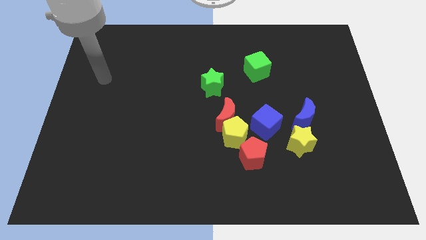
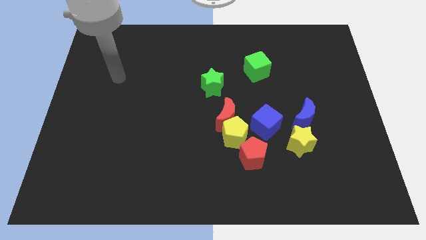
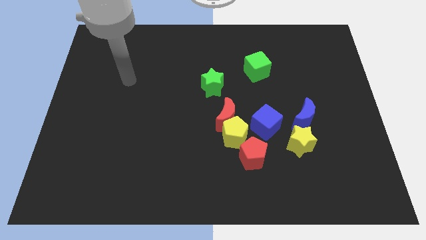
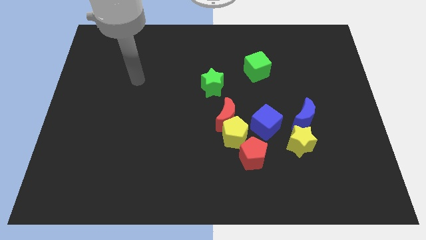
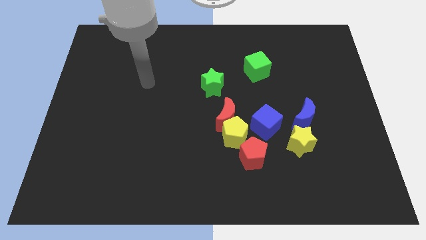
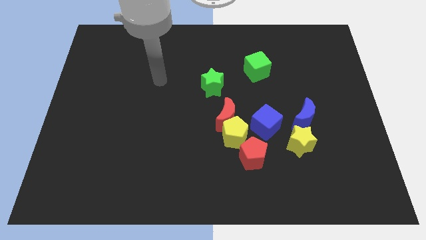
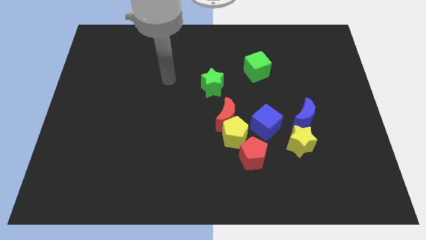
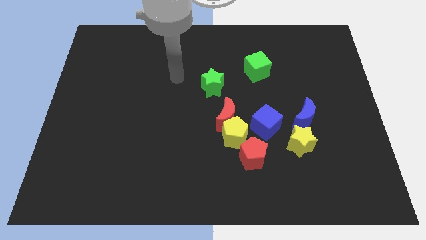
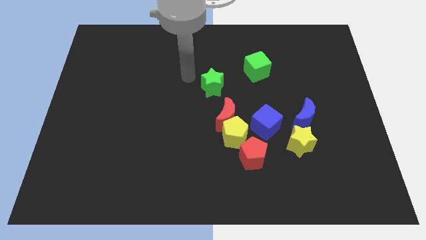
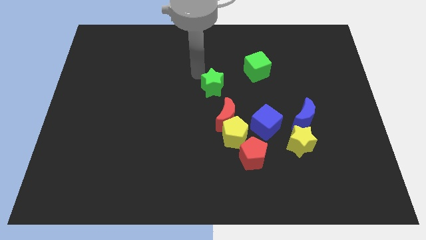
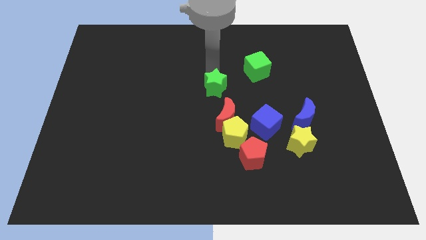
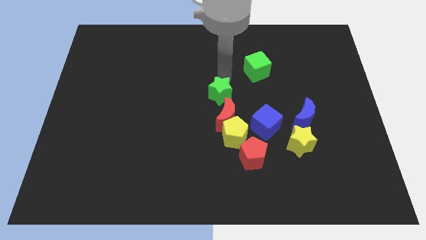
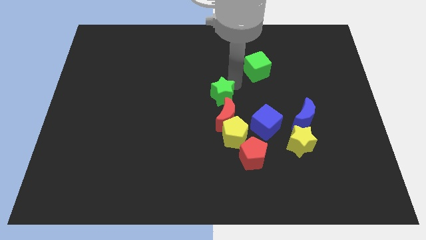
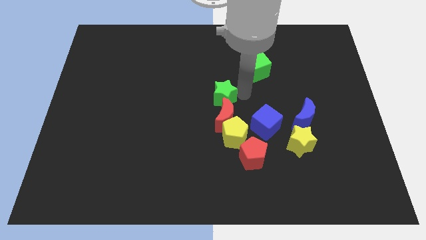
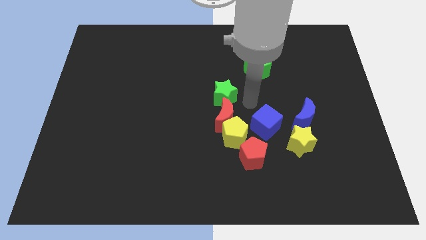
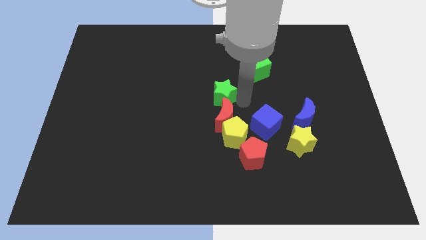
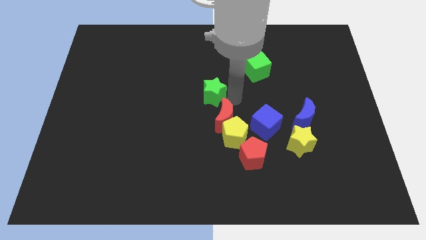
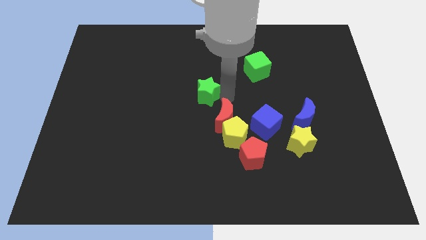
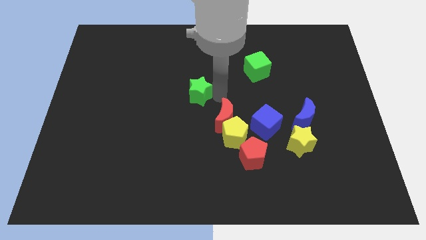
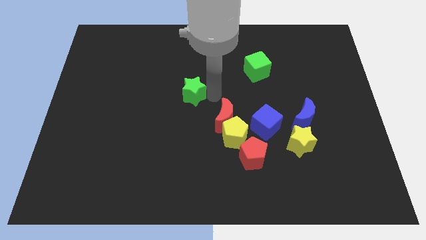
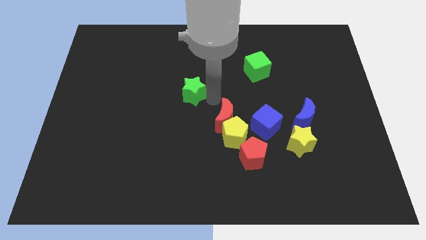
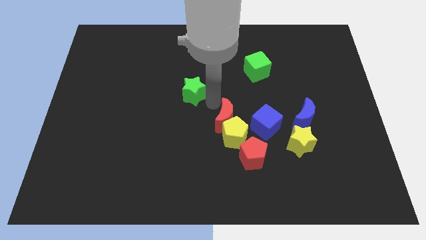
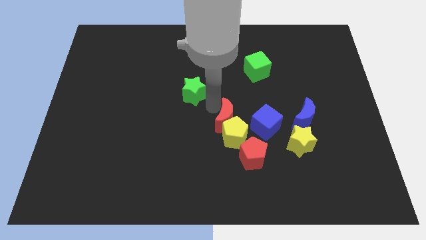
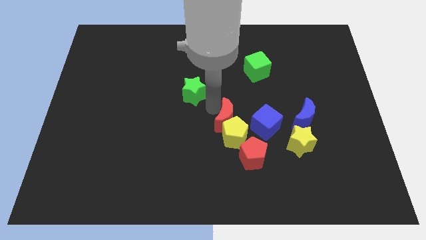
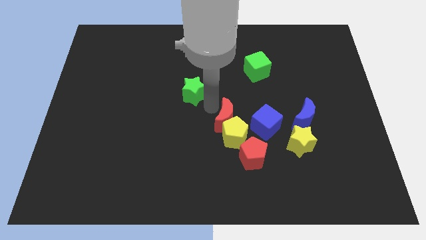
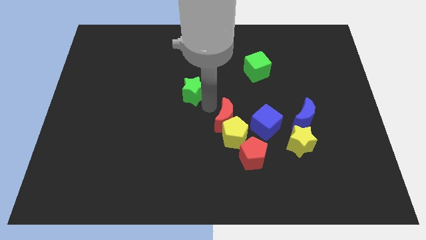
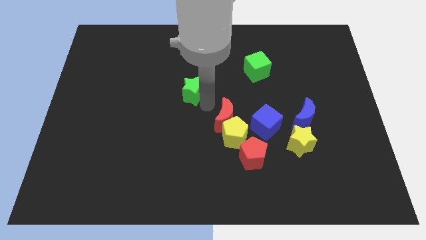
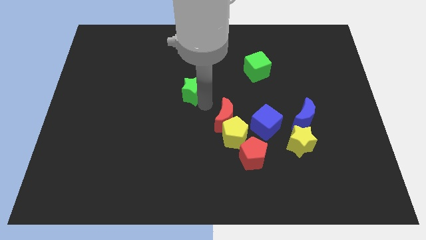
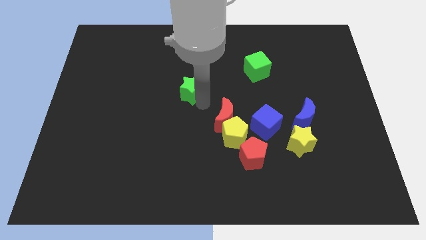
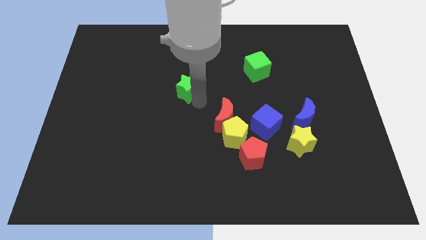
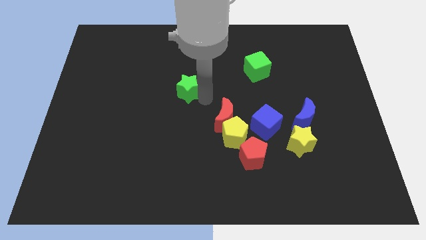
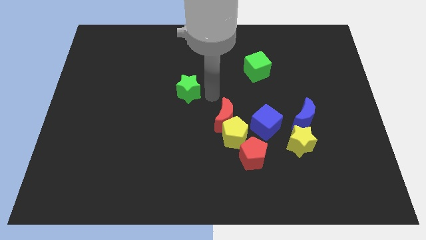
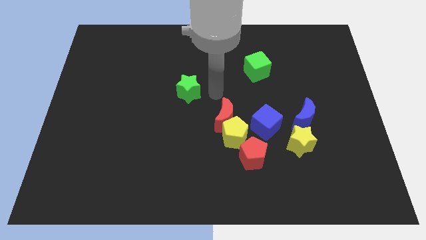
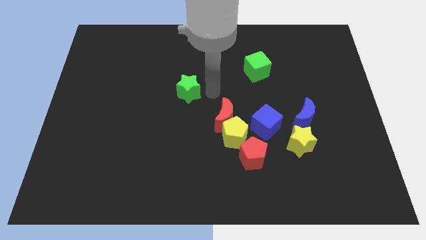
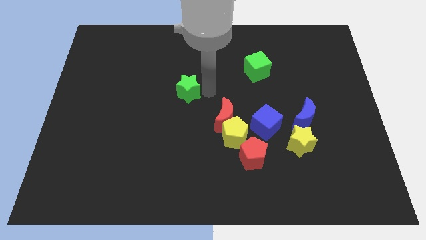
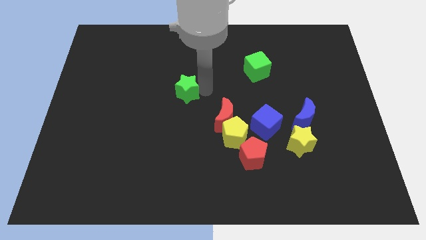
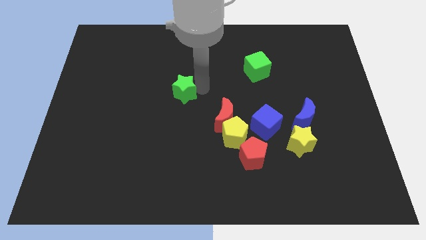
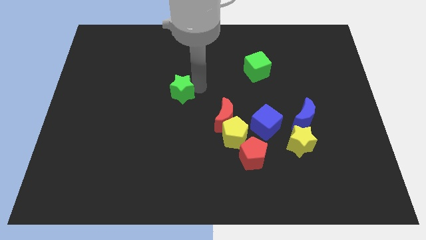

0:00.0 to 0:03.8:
move the green star left a bit

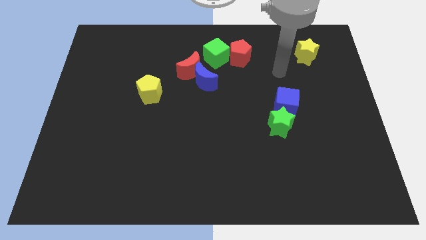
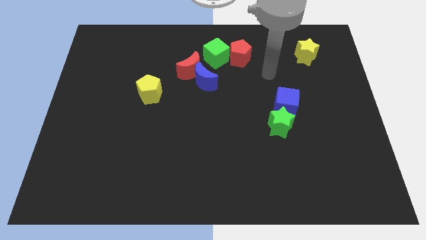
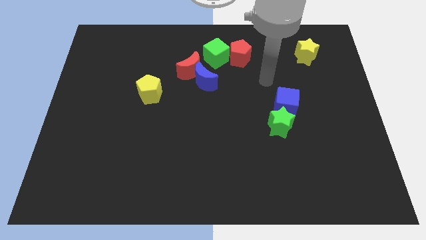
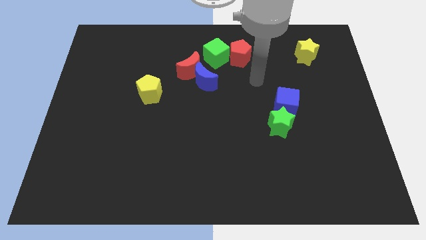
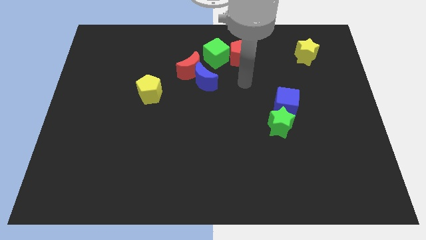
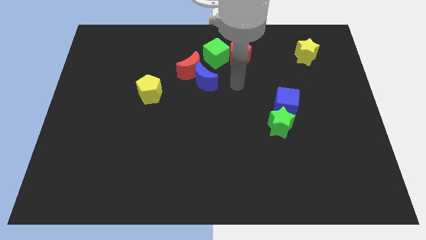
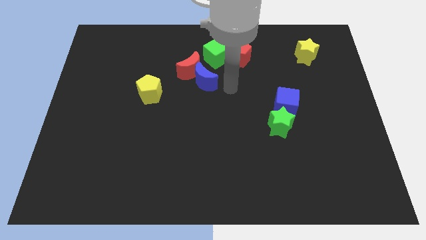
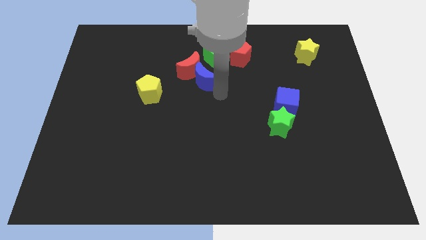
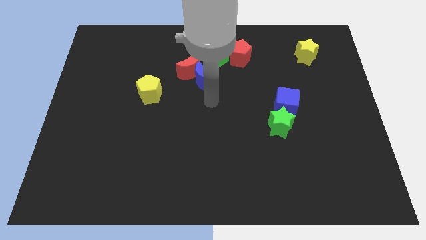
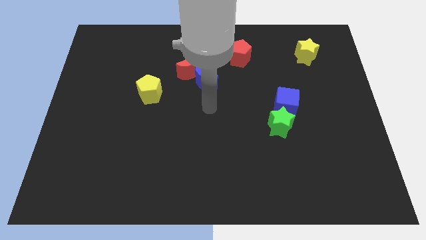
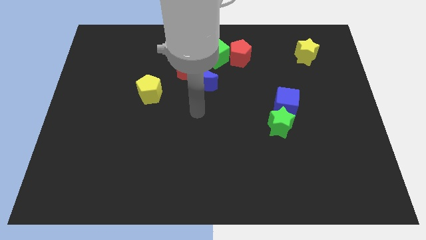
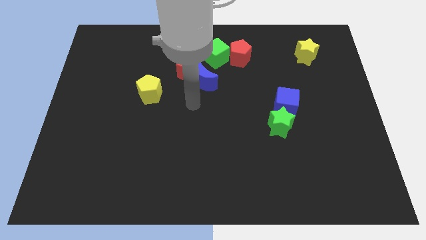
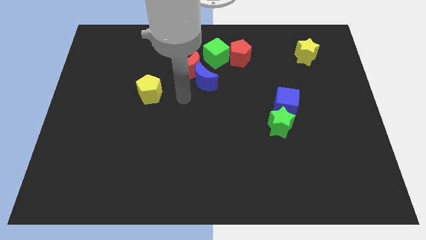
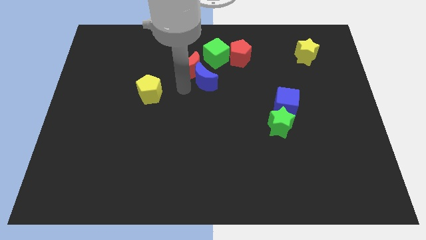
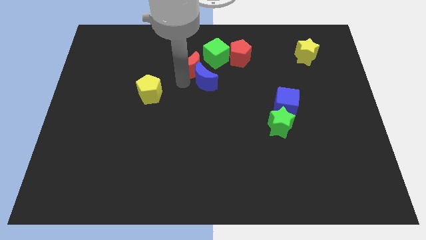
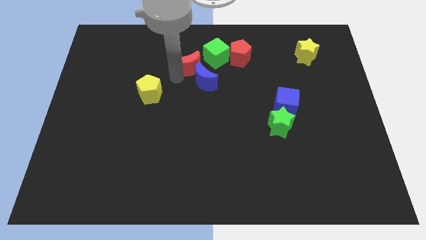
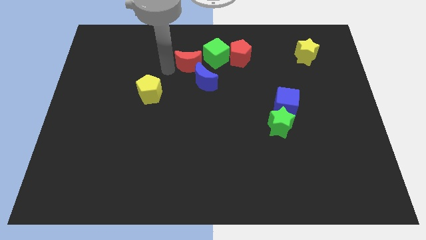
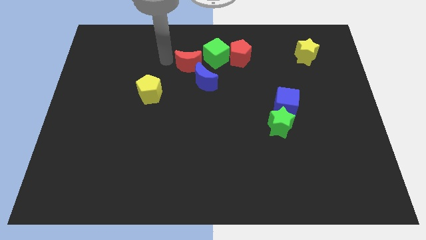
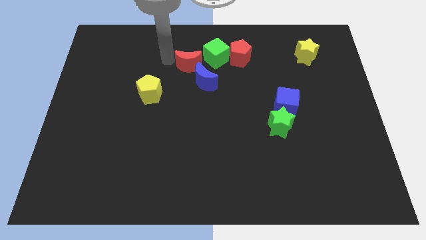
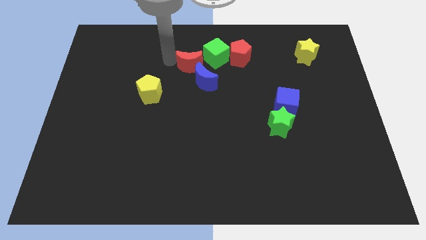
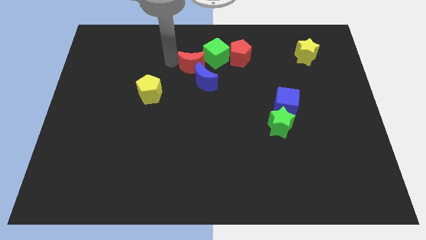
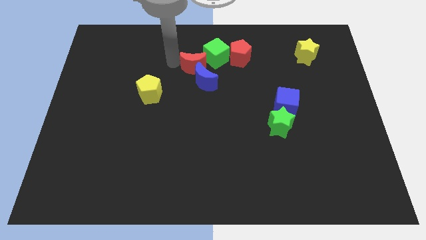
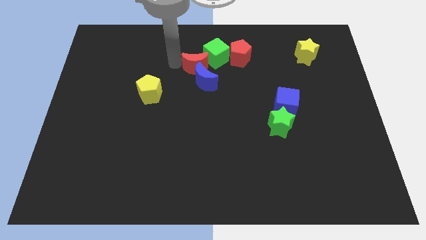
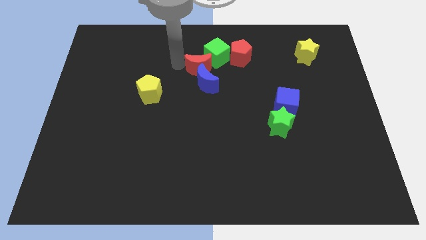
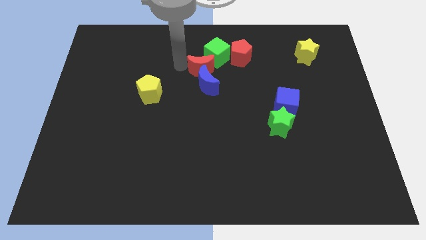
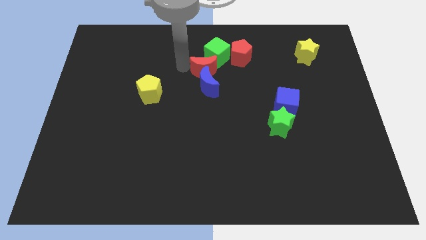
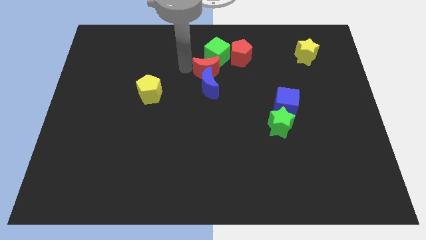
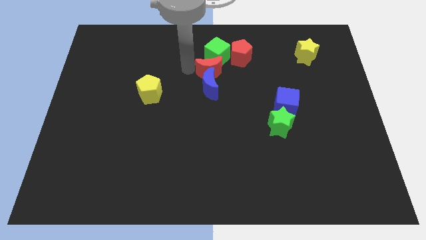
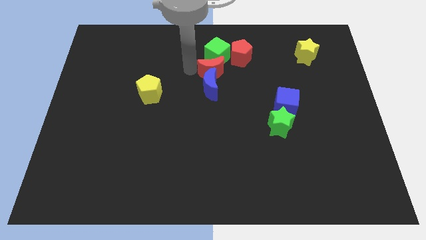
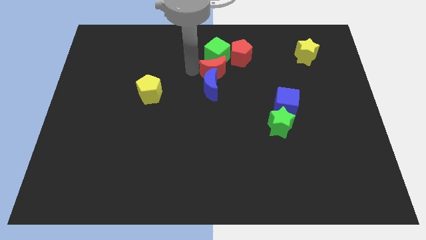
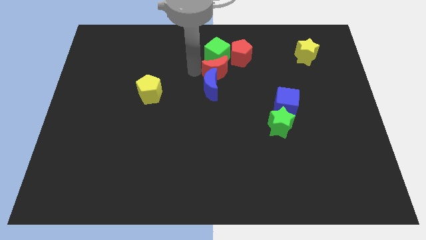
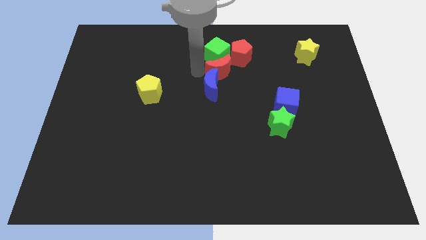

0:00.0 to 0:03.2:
slightly move the red moon right

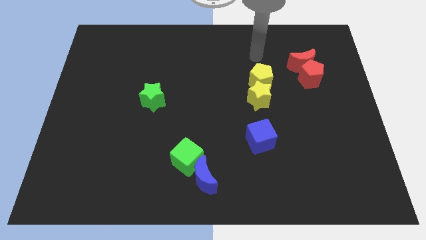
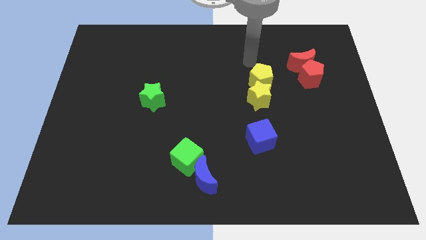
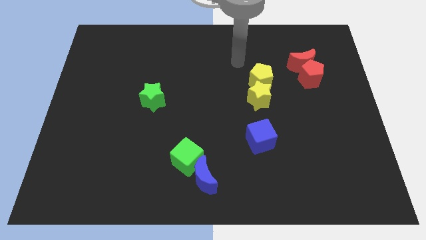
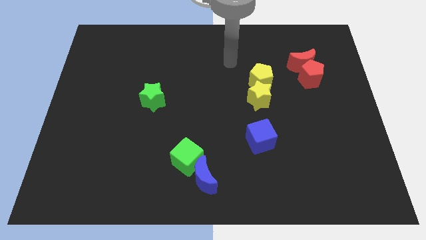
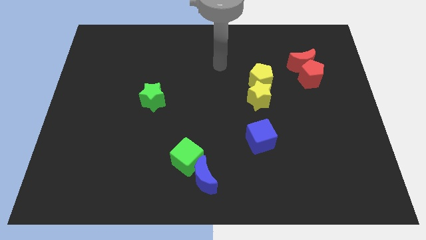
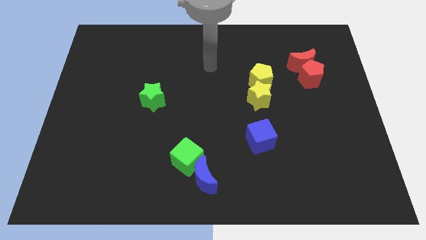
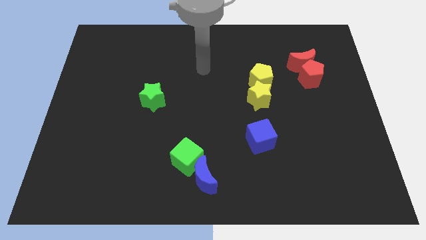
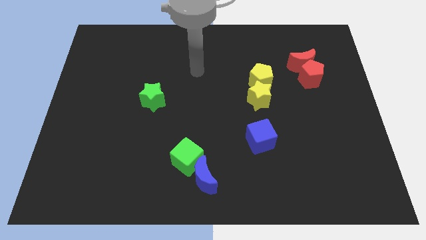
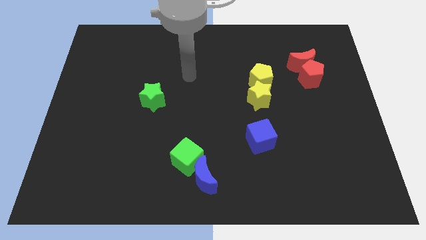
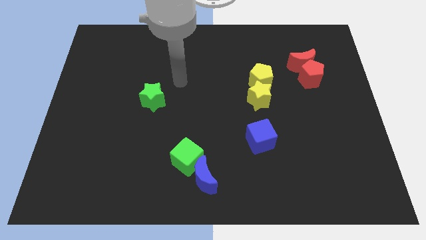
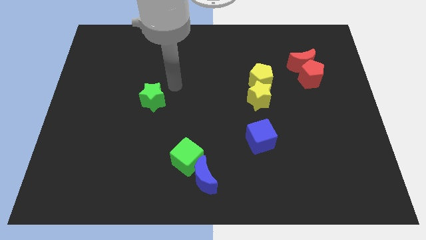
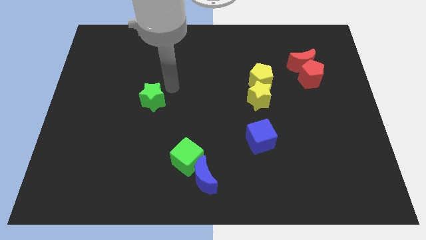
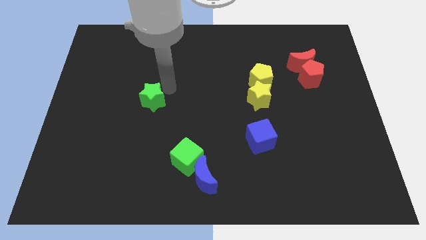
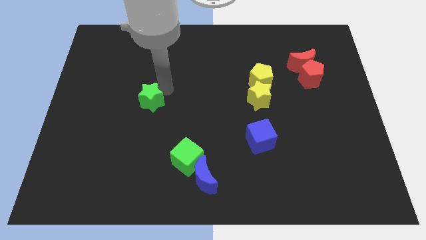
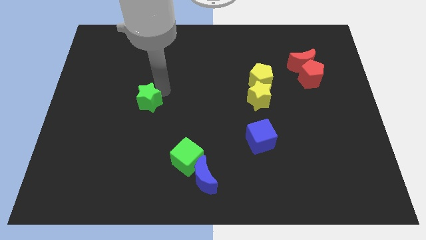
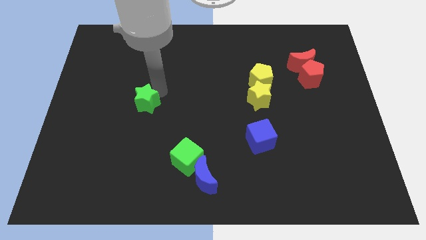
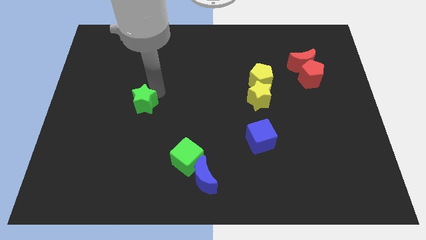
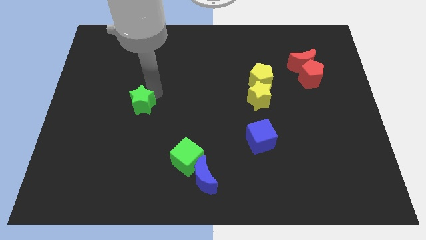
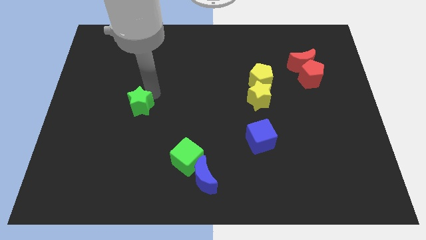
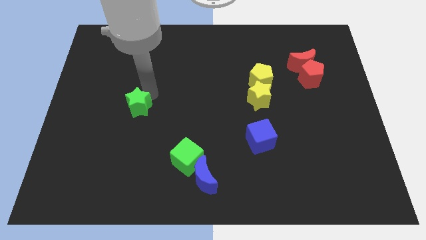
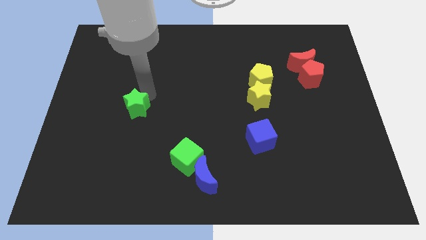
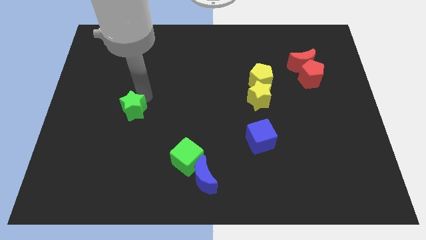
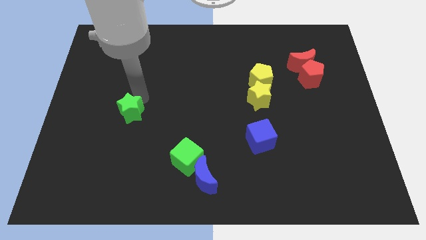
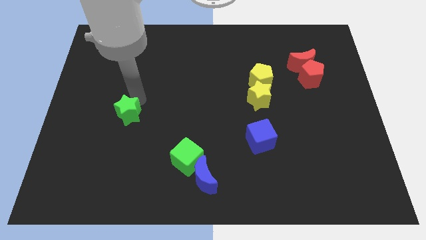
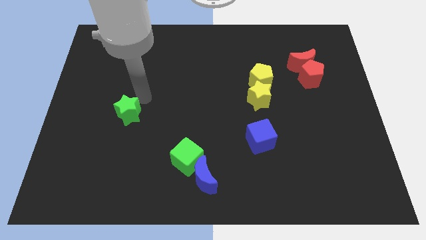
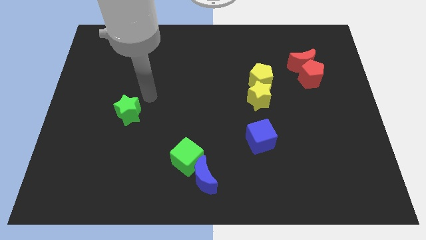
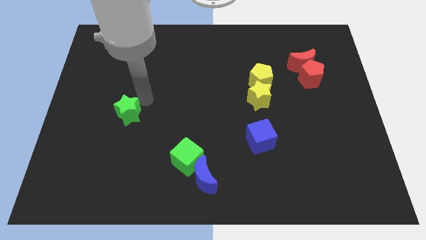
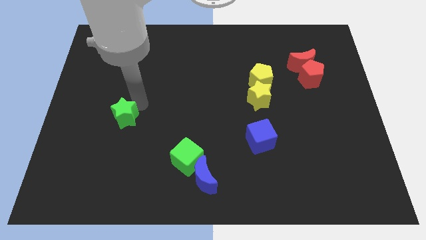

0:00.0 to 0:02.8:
slide the green star somewhat downwards and left diagonally
